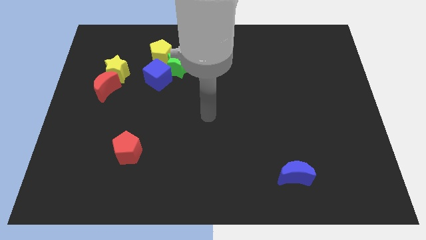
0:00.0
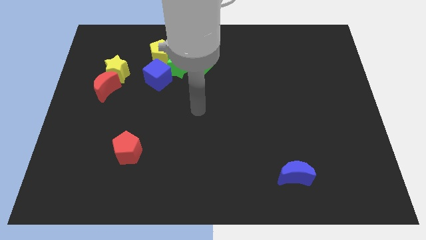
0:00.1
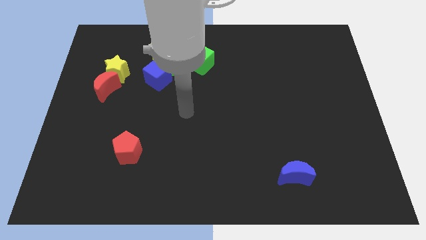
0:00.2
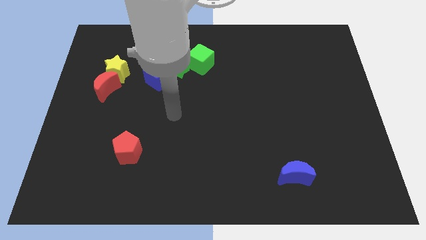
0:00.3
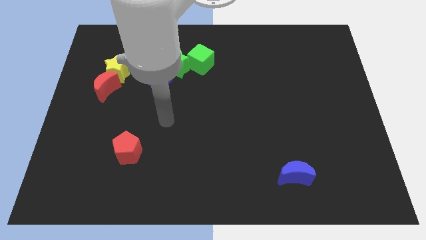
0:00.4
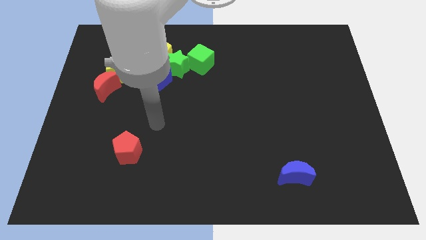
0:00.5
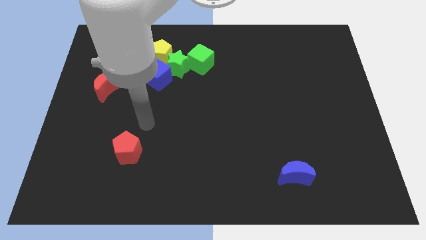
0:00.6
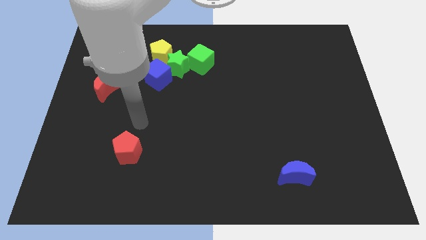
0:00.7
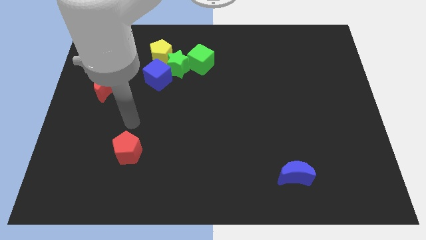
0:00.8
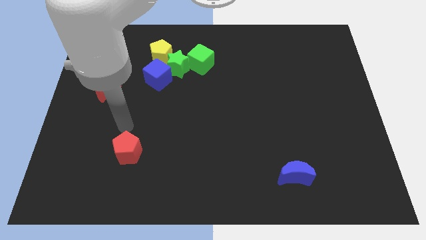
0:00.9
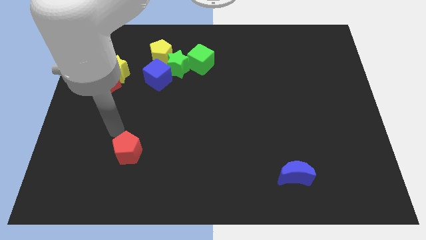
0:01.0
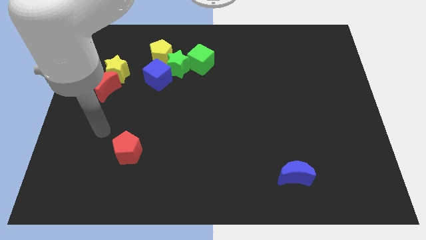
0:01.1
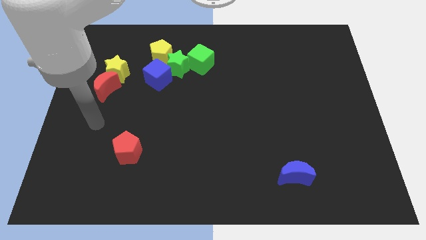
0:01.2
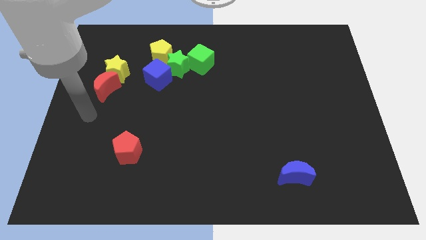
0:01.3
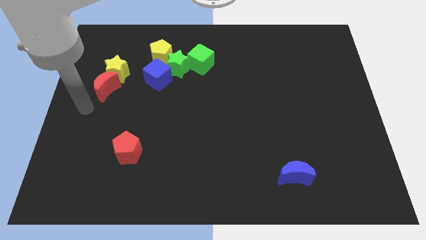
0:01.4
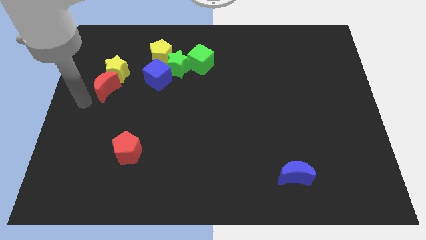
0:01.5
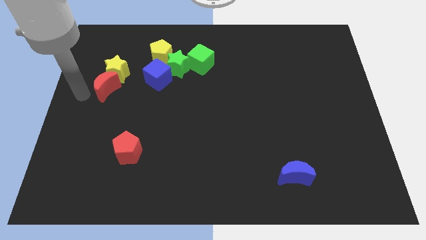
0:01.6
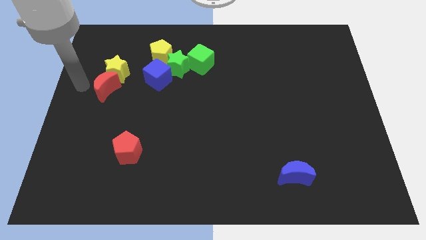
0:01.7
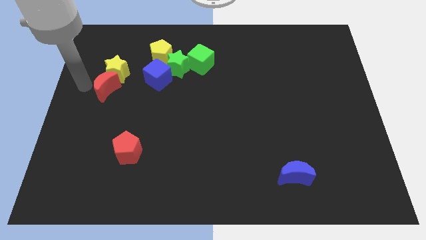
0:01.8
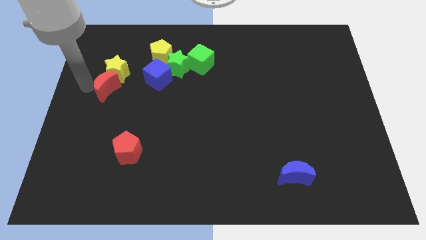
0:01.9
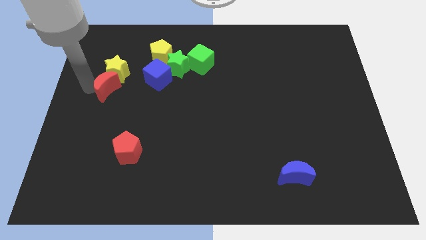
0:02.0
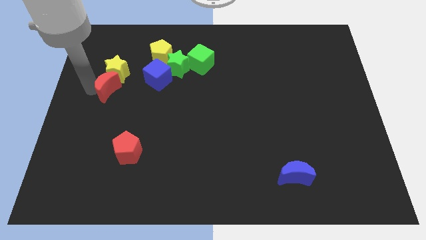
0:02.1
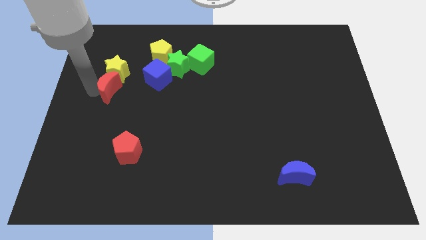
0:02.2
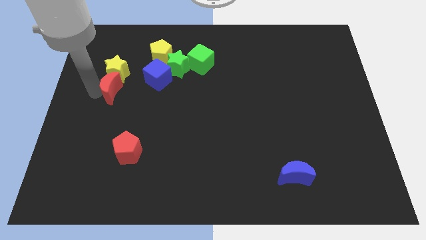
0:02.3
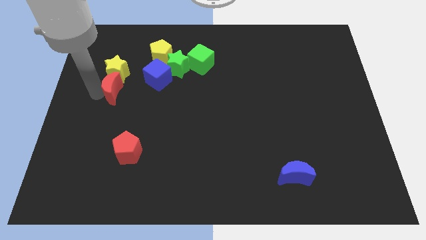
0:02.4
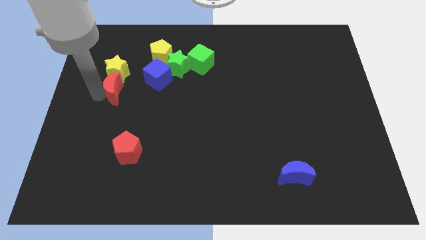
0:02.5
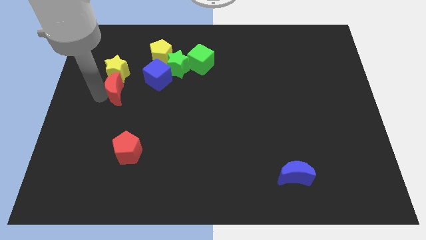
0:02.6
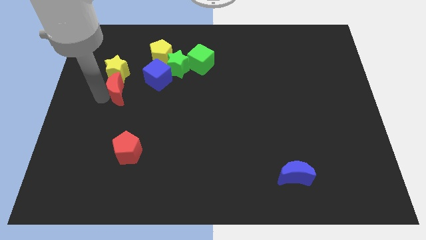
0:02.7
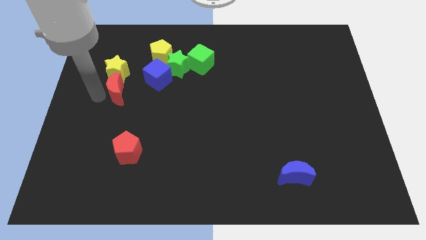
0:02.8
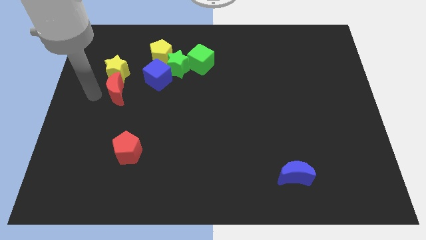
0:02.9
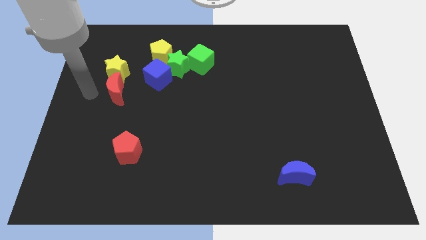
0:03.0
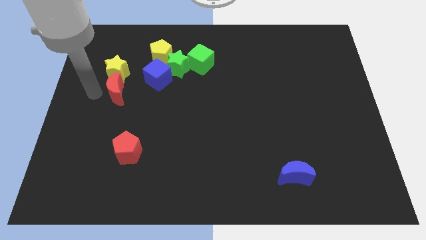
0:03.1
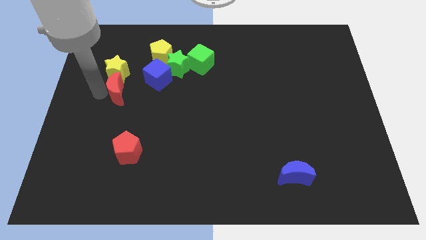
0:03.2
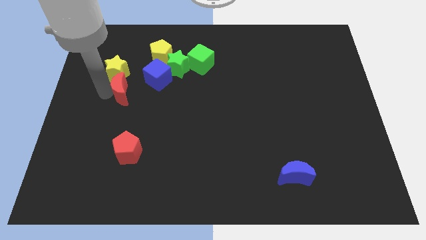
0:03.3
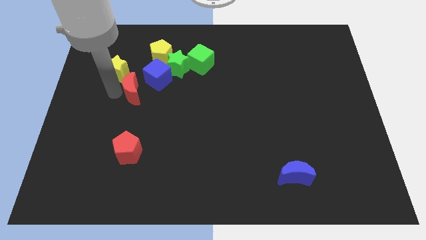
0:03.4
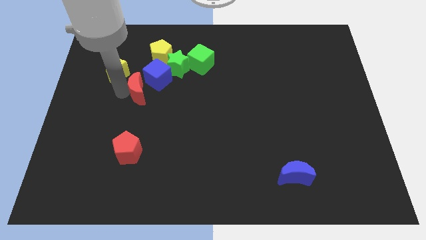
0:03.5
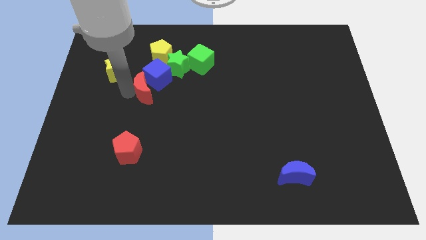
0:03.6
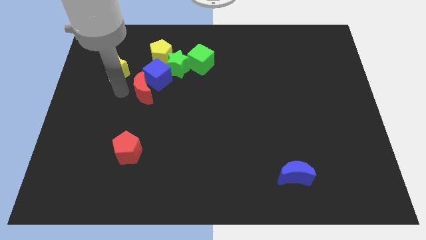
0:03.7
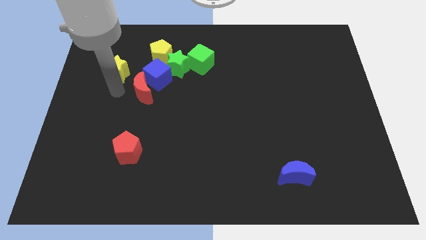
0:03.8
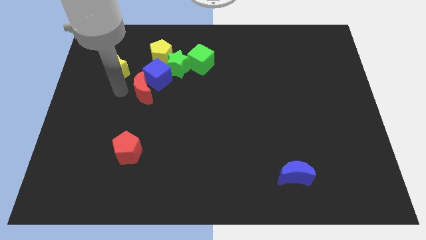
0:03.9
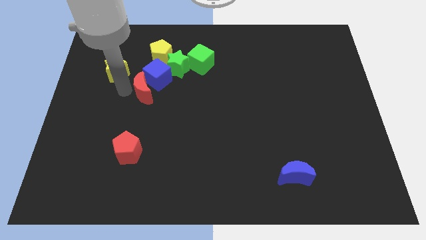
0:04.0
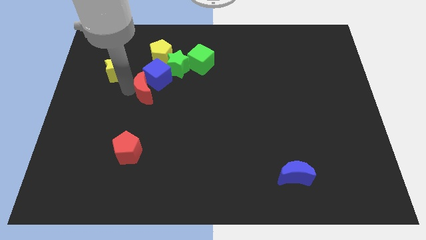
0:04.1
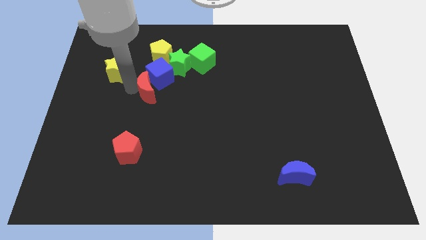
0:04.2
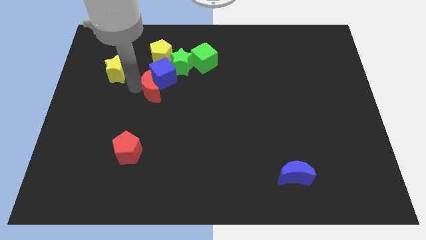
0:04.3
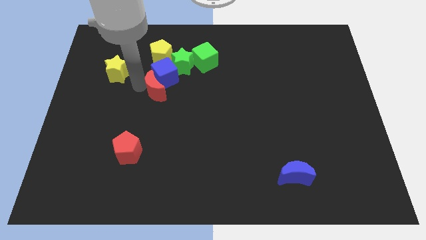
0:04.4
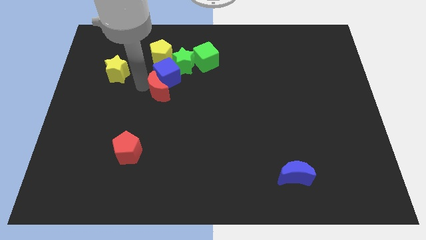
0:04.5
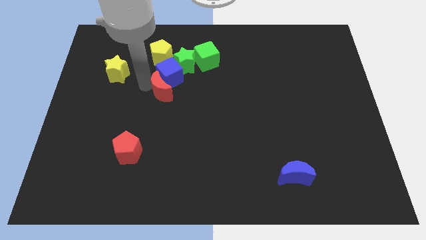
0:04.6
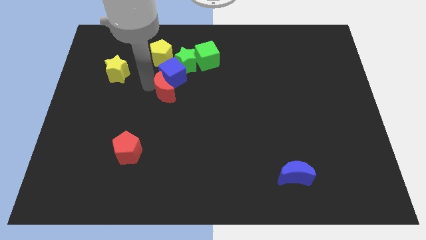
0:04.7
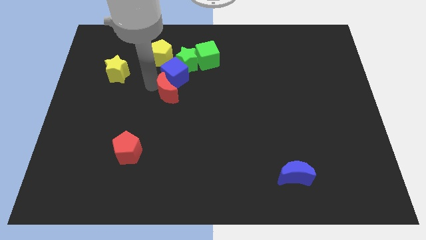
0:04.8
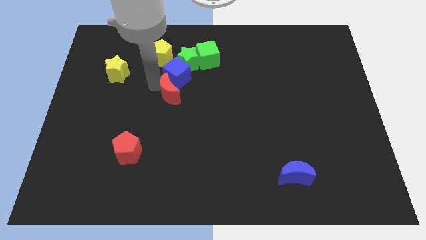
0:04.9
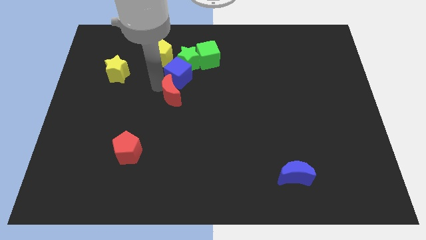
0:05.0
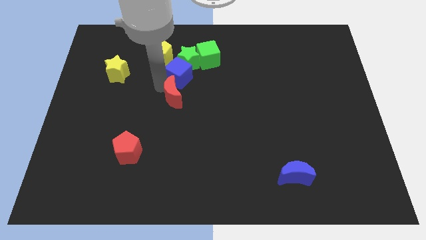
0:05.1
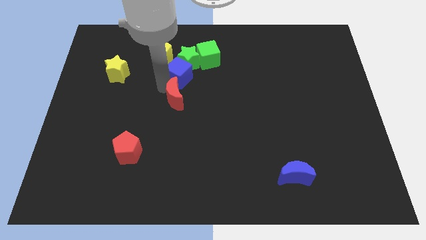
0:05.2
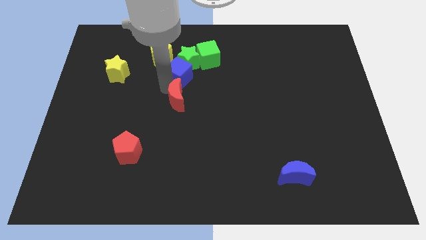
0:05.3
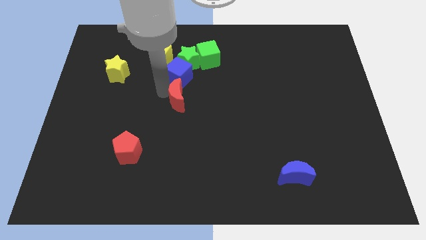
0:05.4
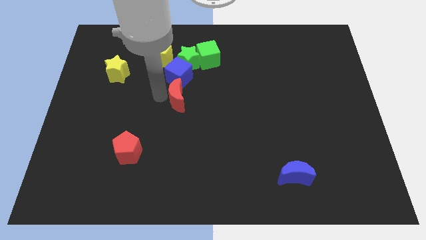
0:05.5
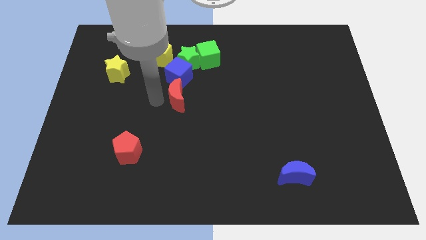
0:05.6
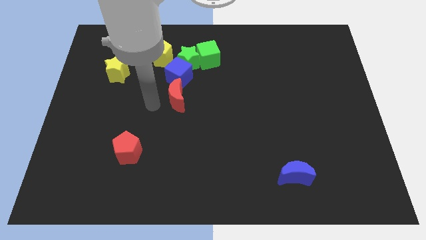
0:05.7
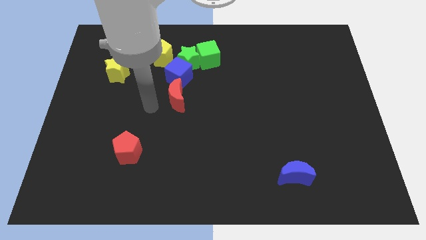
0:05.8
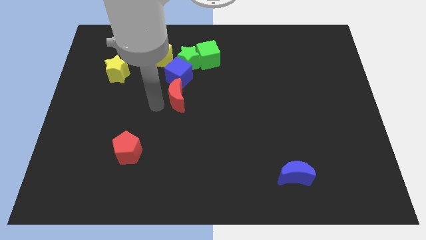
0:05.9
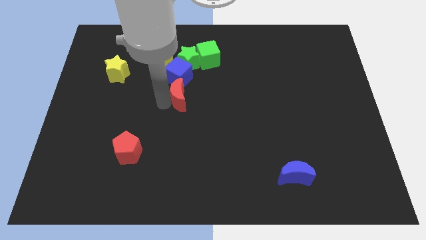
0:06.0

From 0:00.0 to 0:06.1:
move the red moon to the bottom right side of the blue cube

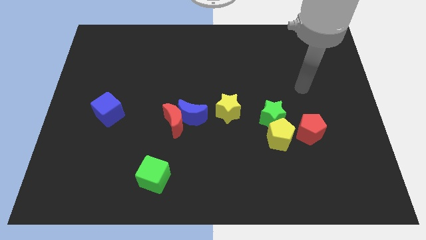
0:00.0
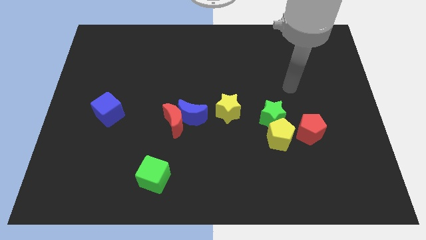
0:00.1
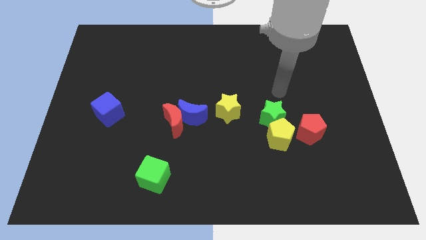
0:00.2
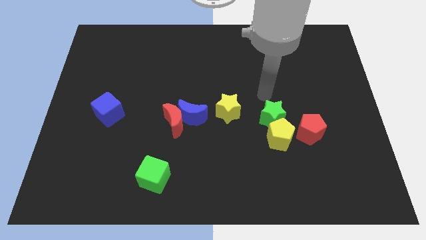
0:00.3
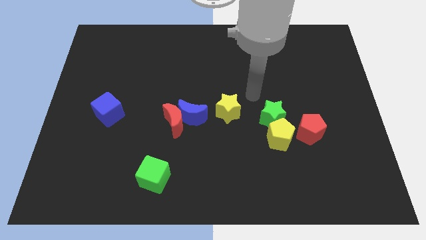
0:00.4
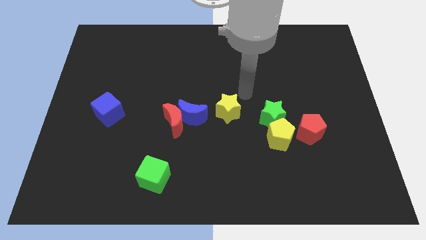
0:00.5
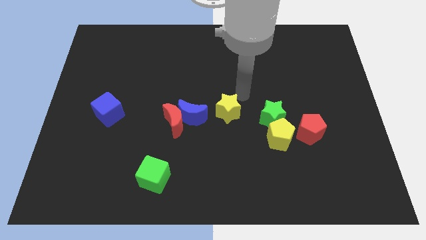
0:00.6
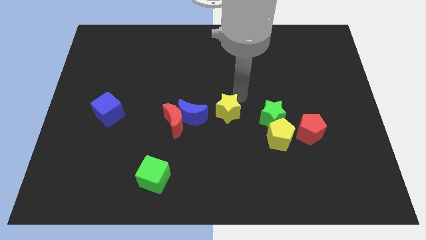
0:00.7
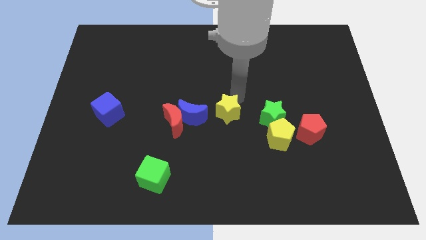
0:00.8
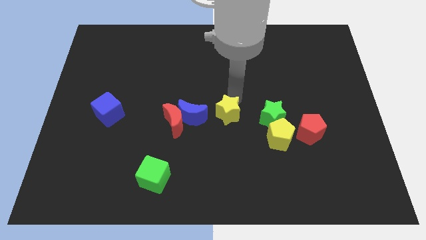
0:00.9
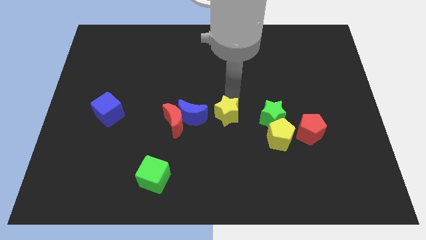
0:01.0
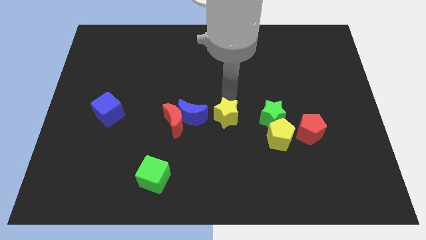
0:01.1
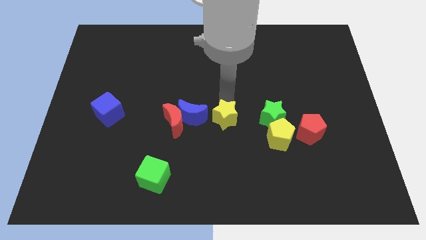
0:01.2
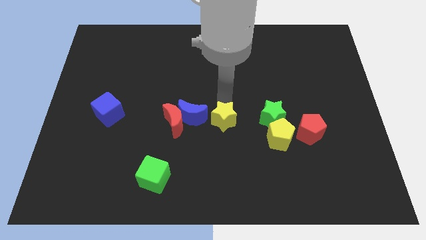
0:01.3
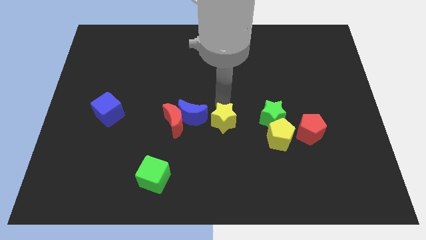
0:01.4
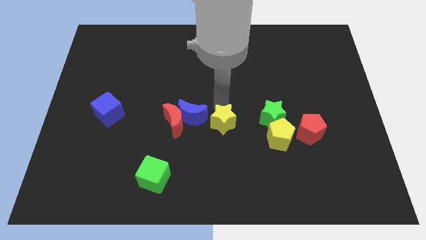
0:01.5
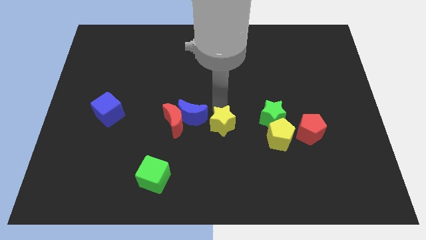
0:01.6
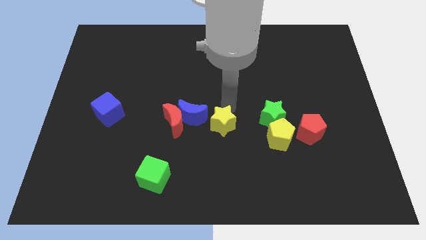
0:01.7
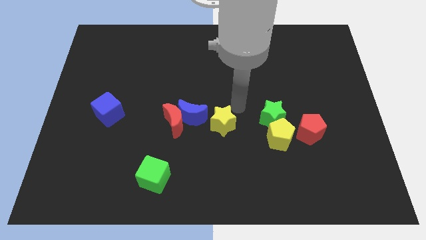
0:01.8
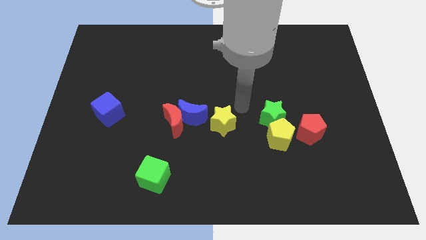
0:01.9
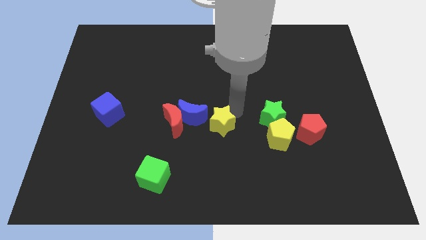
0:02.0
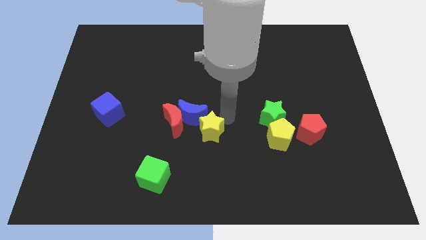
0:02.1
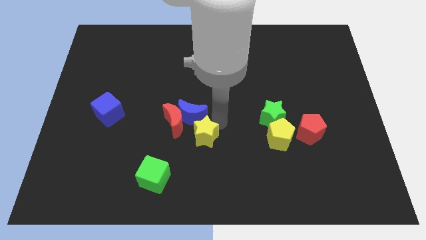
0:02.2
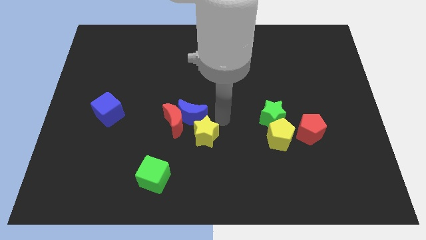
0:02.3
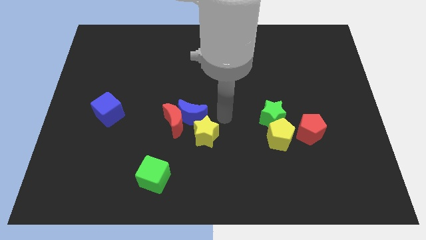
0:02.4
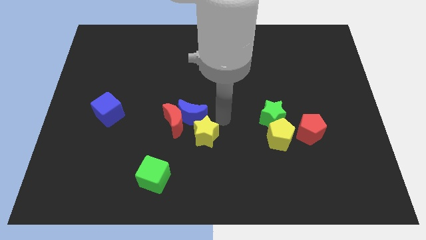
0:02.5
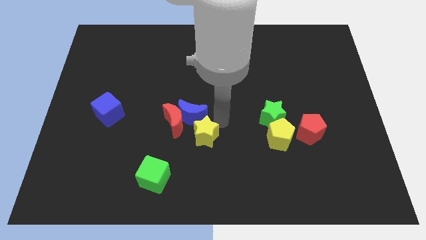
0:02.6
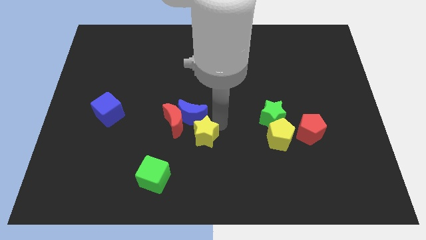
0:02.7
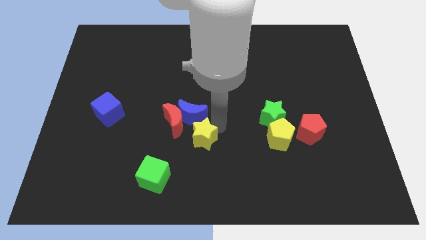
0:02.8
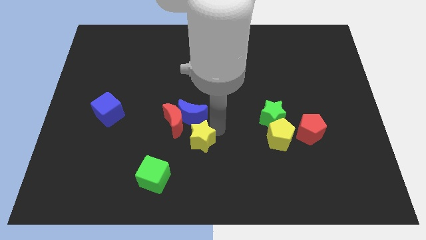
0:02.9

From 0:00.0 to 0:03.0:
slide the yellow star to the top right side of the green cube
